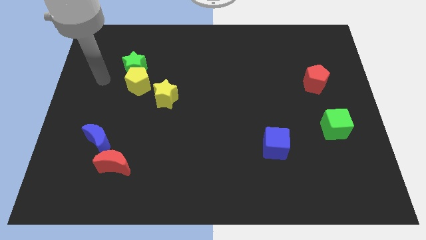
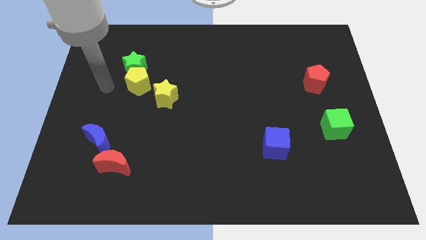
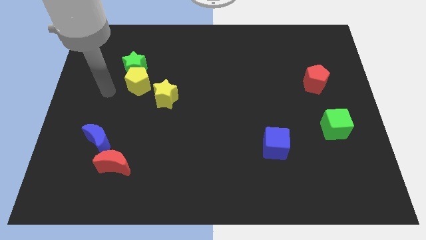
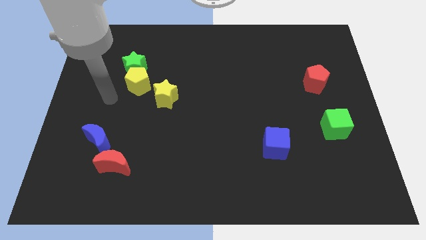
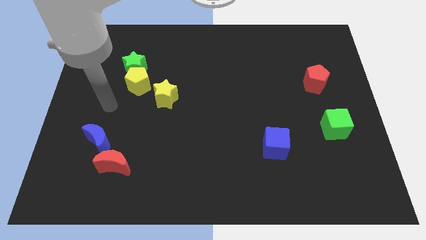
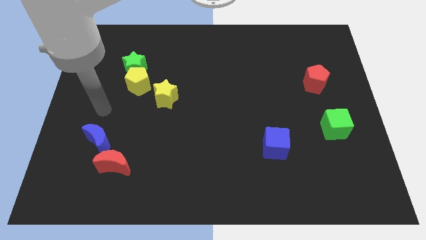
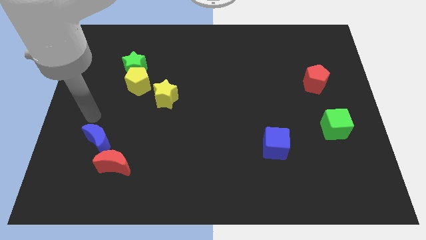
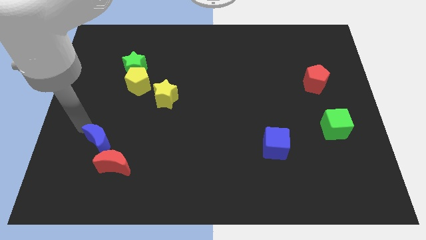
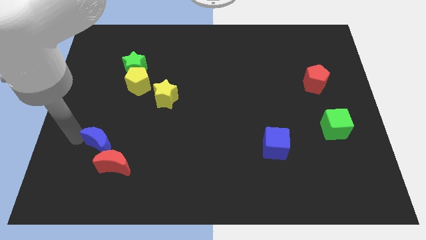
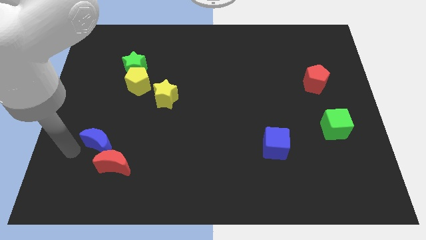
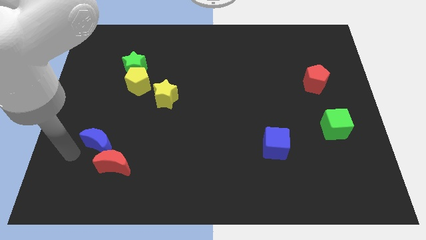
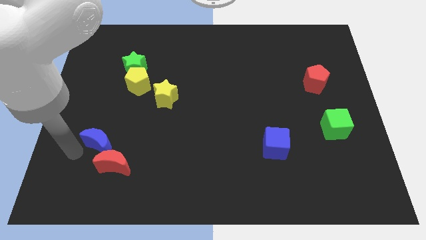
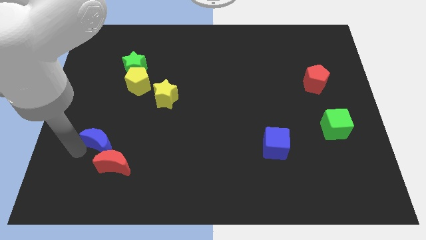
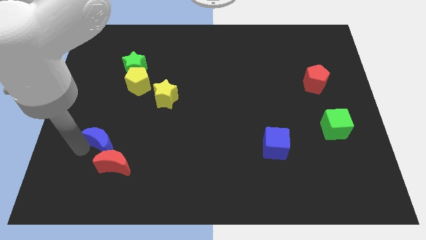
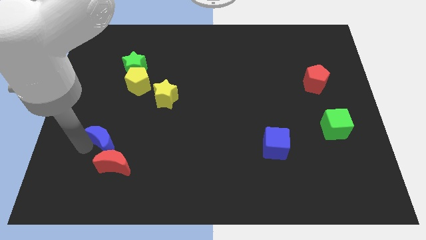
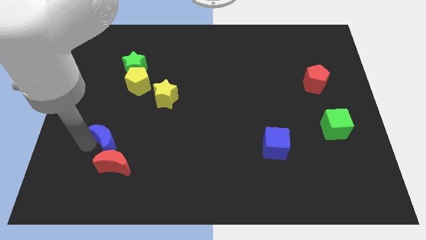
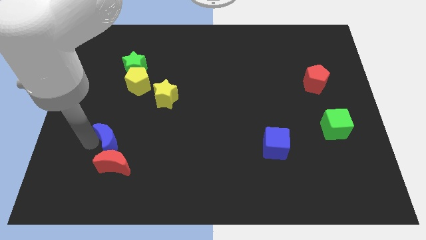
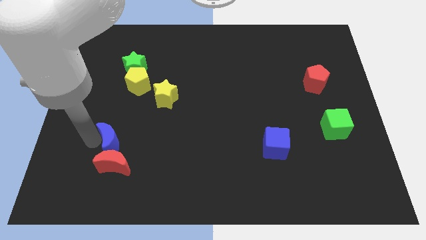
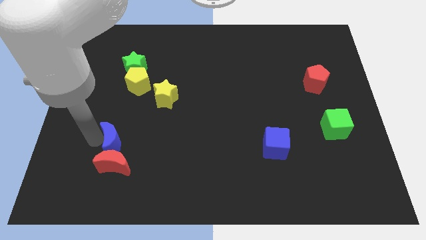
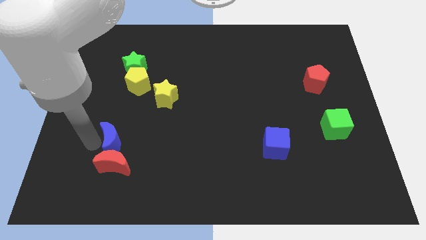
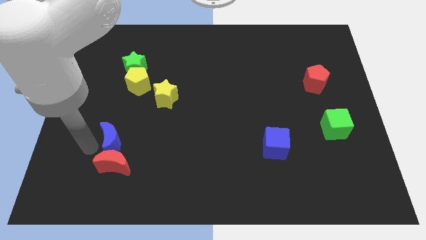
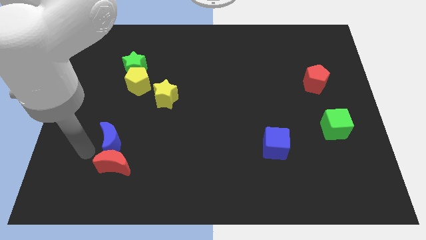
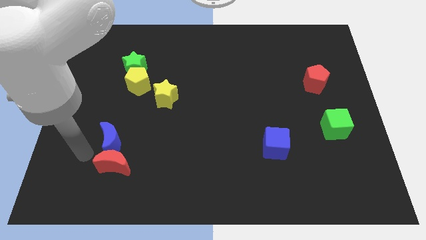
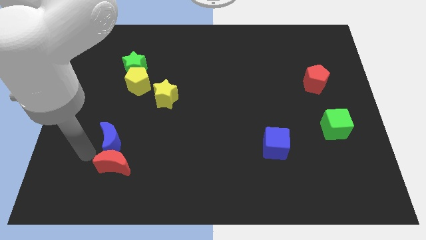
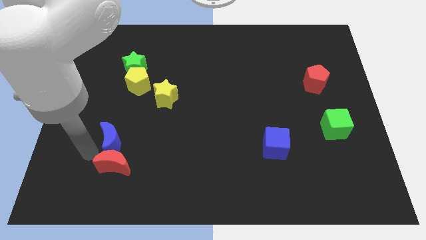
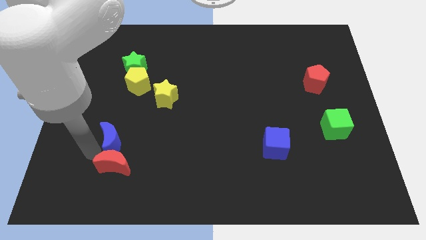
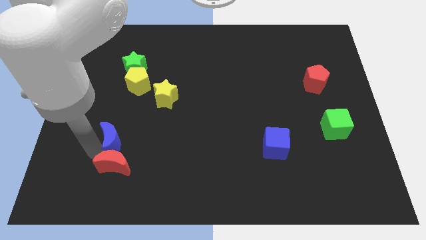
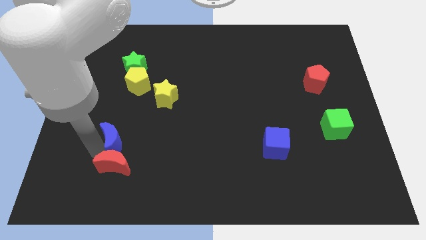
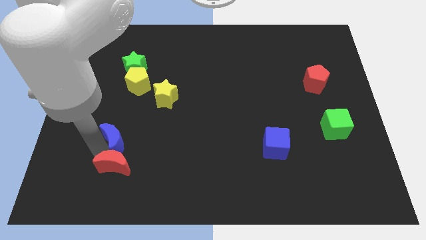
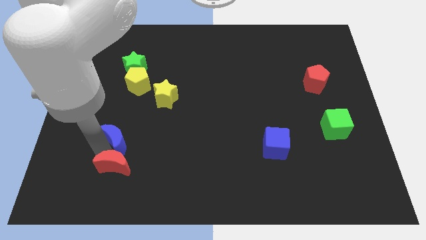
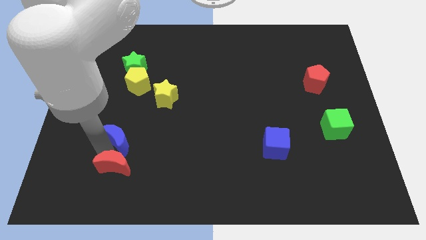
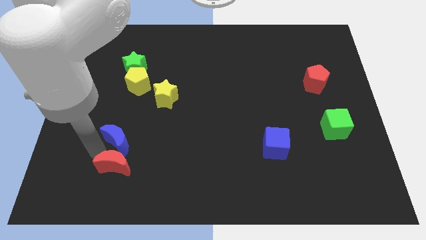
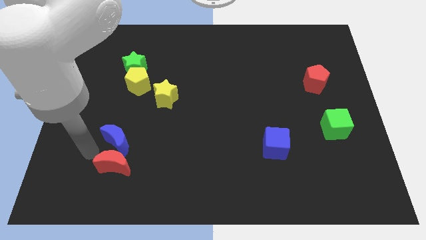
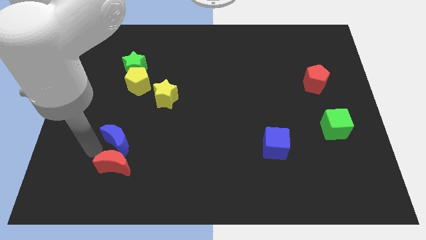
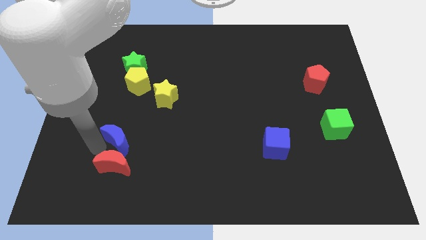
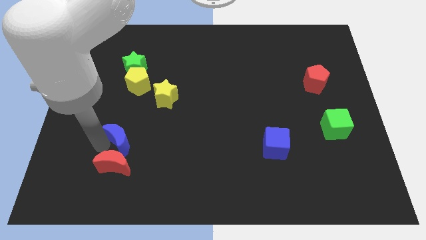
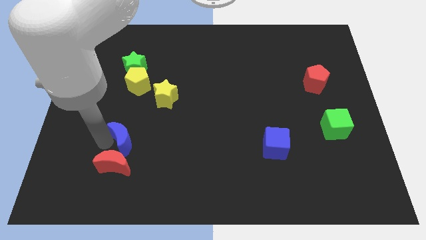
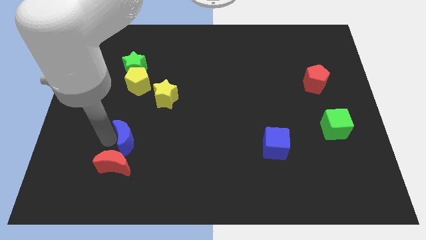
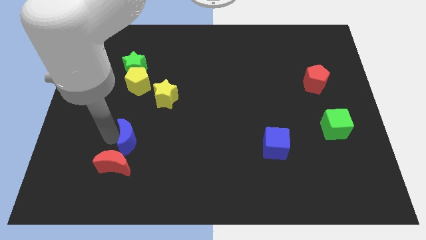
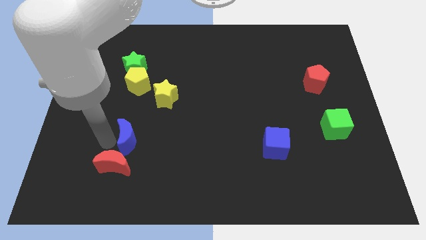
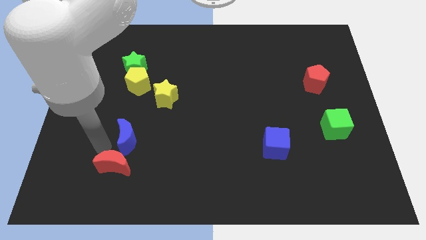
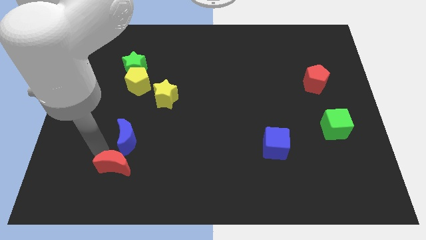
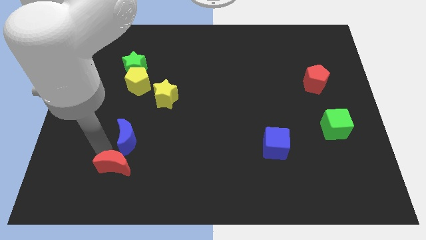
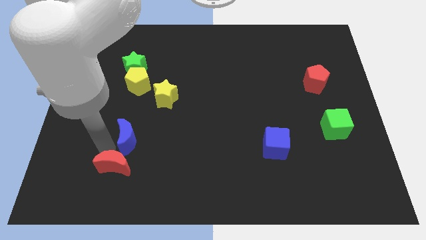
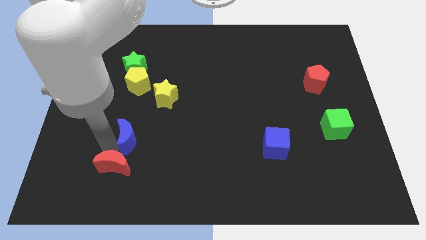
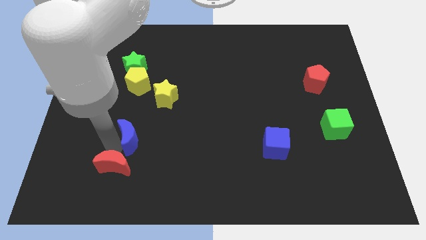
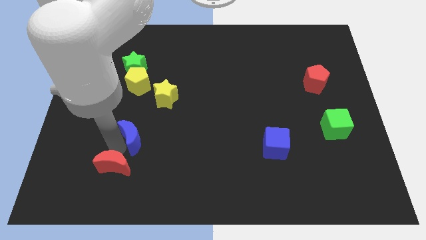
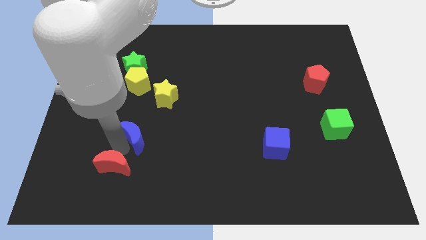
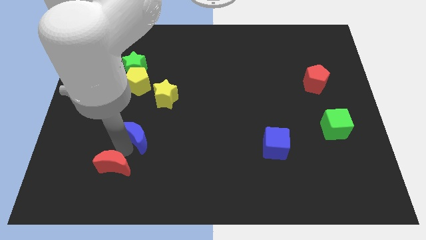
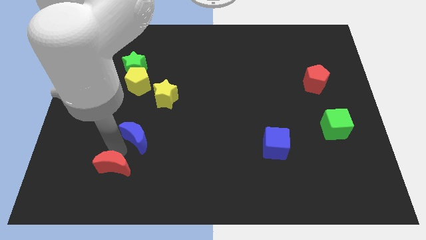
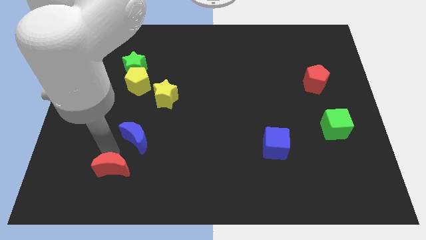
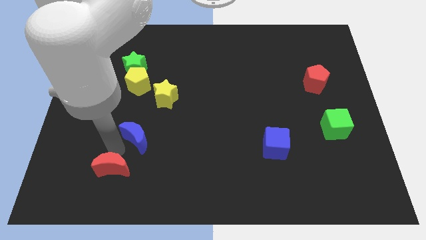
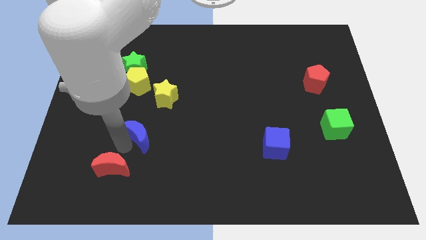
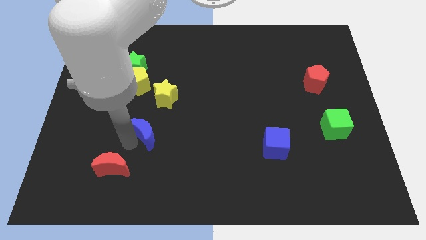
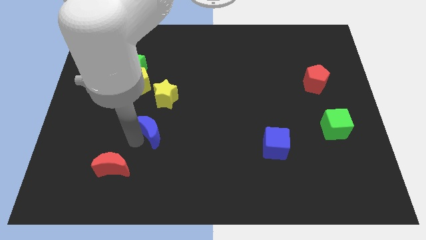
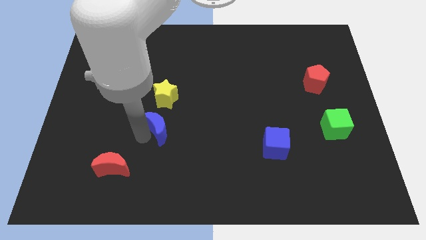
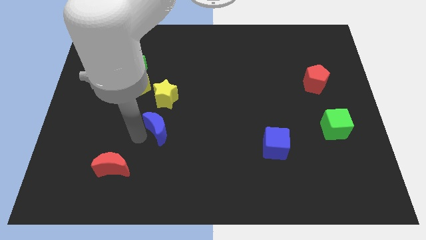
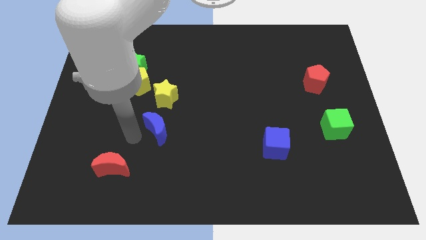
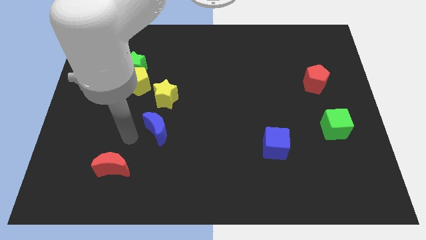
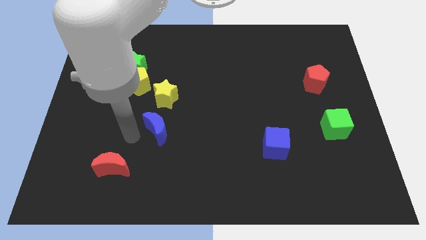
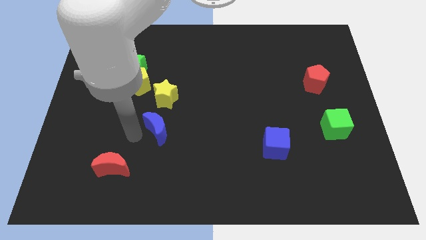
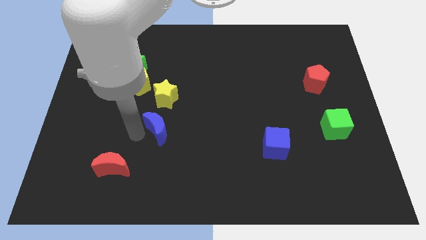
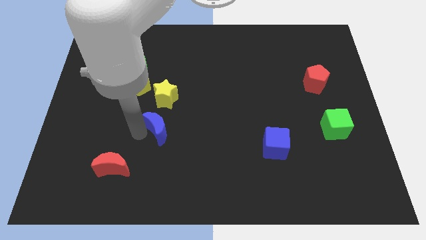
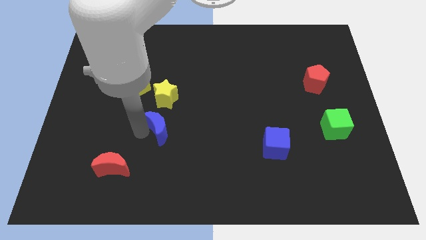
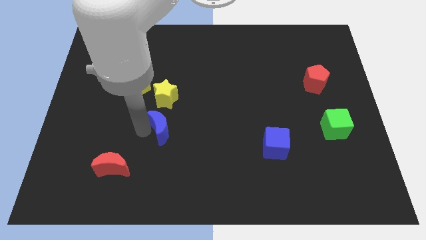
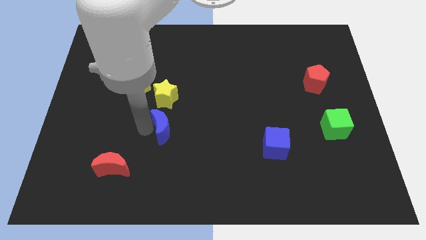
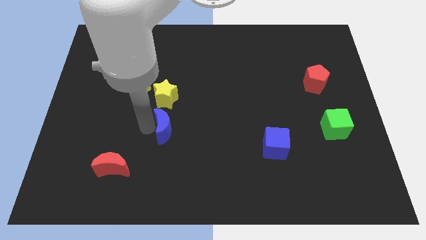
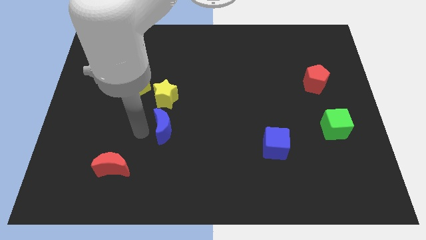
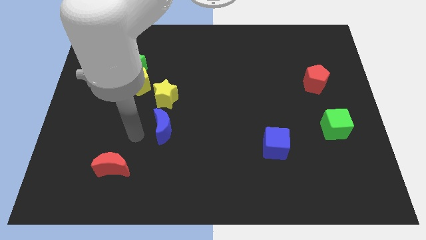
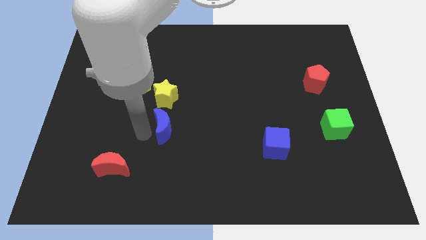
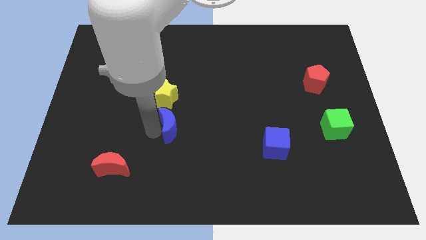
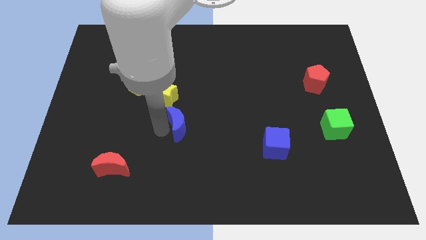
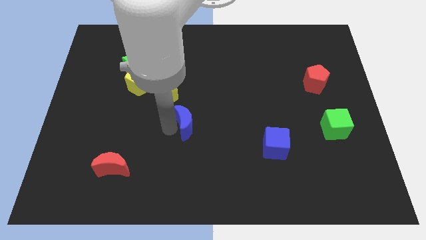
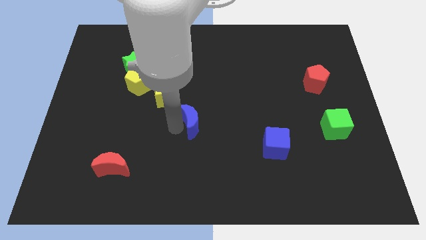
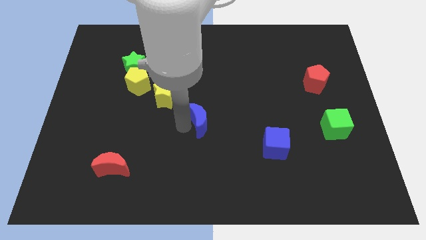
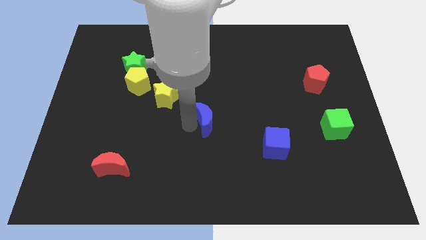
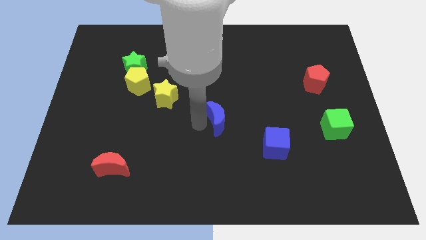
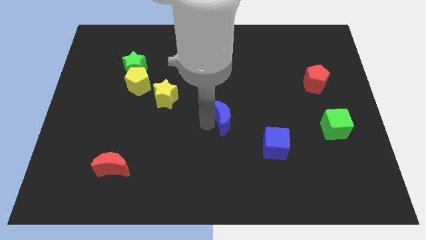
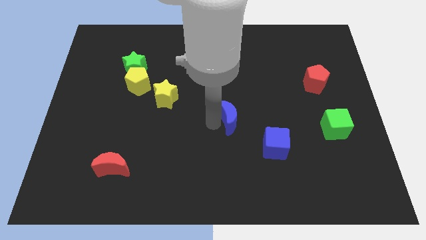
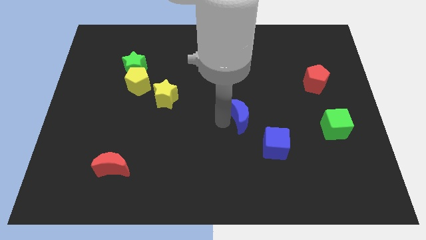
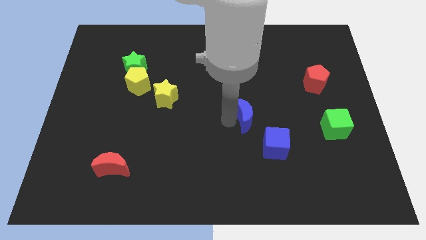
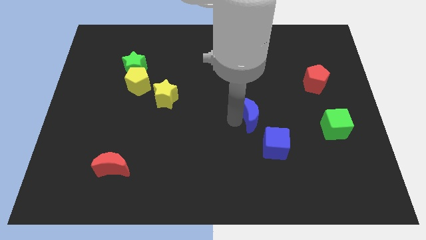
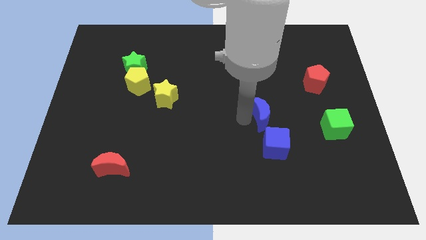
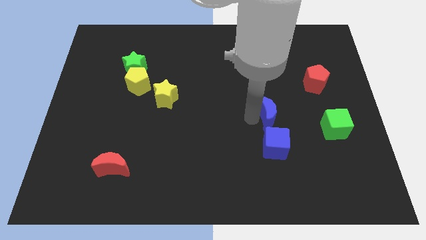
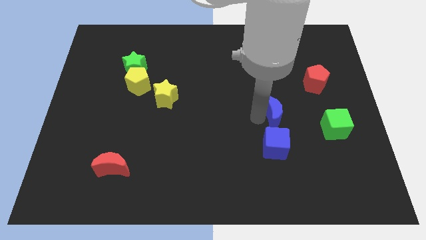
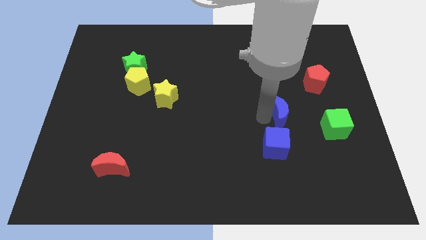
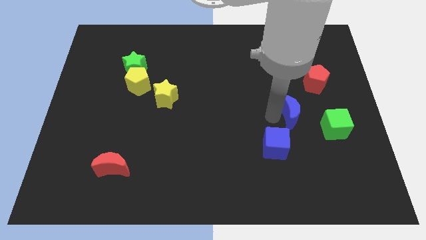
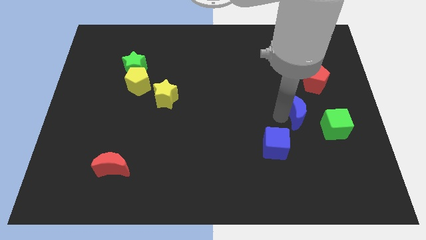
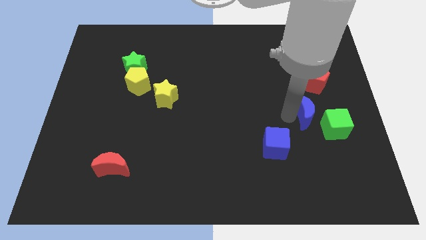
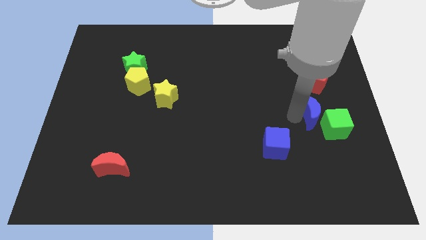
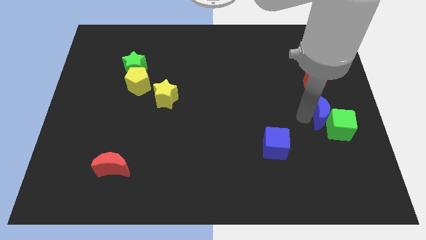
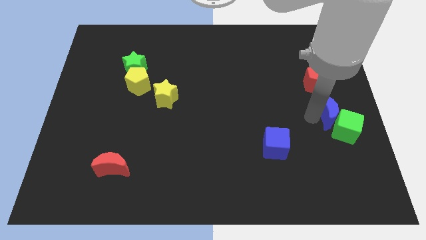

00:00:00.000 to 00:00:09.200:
push the blue moon to the right side
